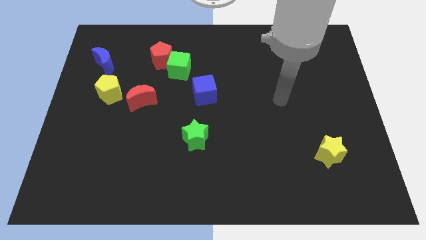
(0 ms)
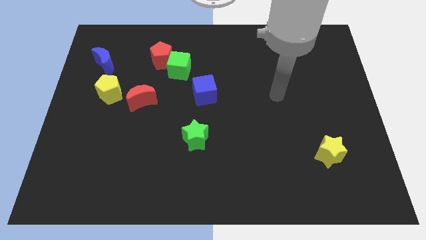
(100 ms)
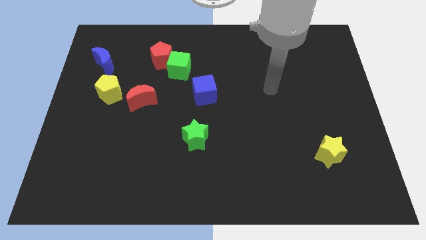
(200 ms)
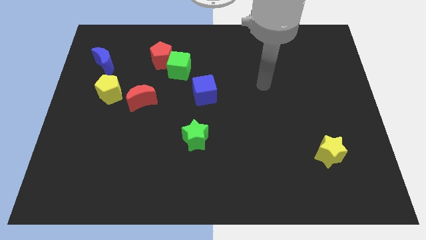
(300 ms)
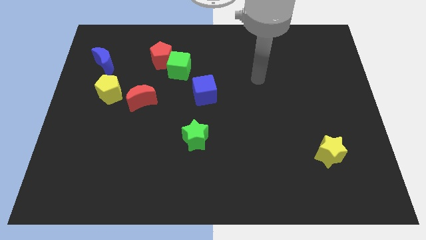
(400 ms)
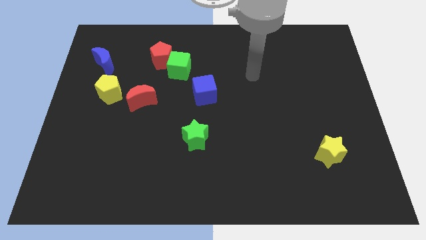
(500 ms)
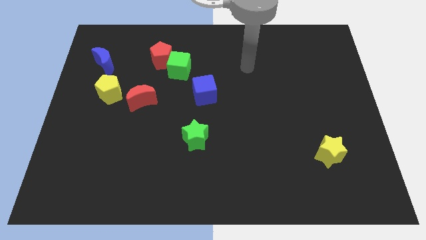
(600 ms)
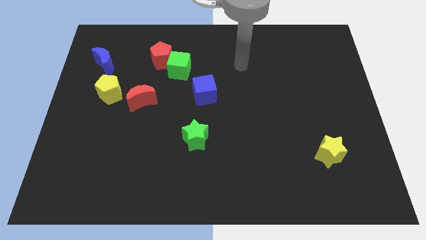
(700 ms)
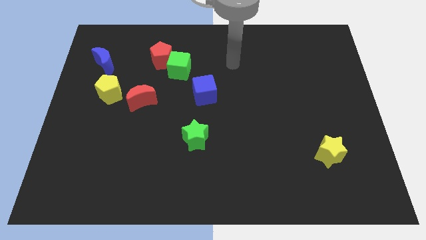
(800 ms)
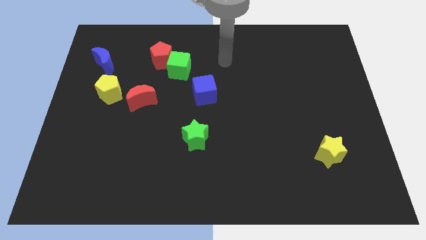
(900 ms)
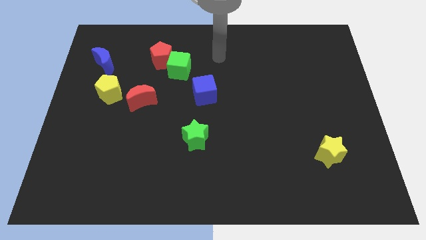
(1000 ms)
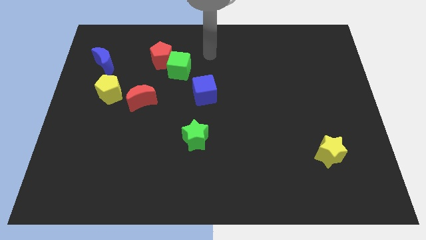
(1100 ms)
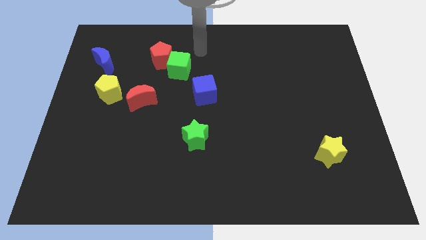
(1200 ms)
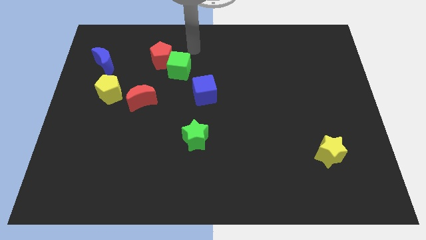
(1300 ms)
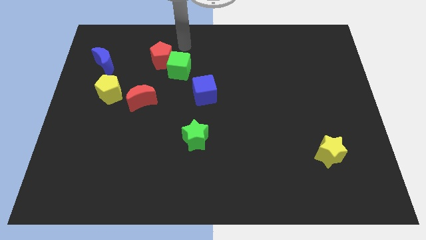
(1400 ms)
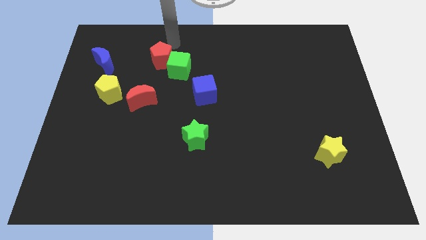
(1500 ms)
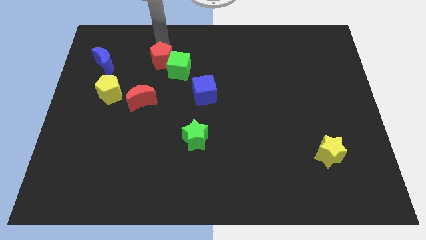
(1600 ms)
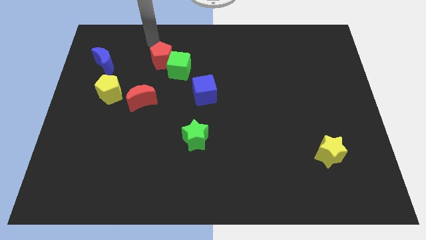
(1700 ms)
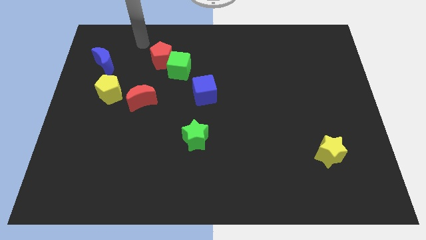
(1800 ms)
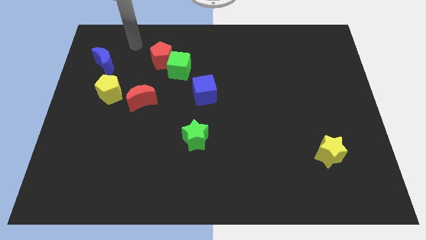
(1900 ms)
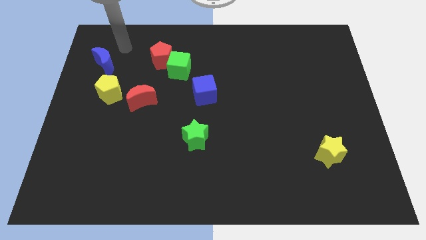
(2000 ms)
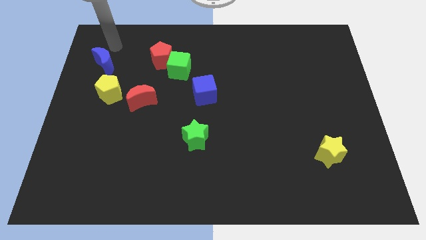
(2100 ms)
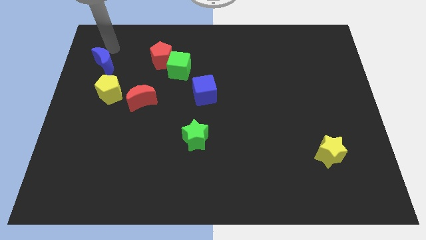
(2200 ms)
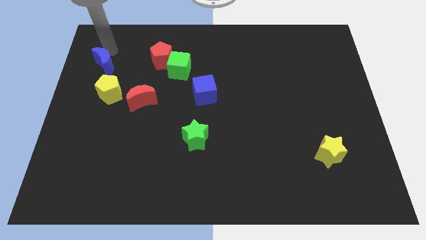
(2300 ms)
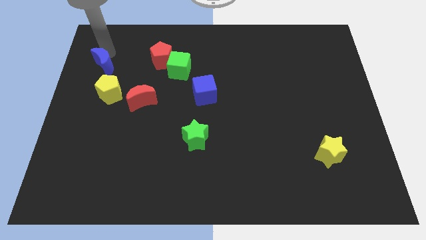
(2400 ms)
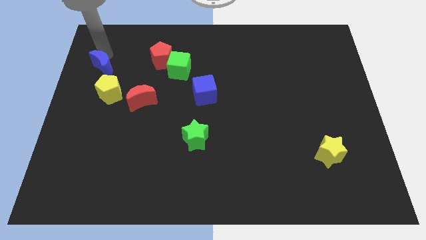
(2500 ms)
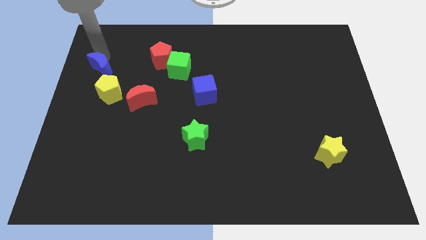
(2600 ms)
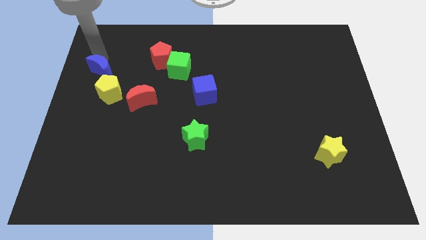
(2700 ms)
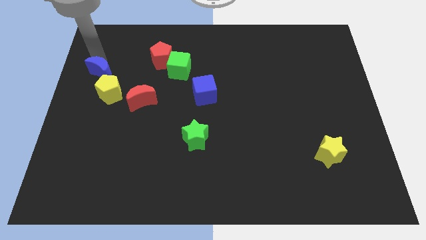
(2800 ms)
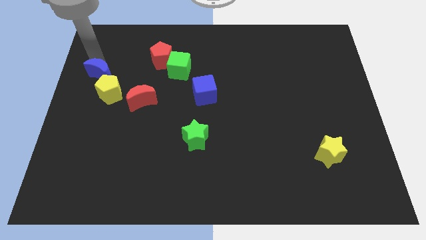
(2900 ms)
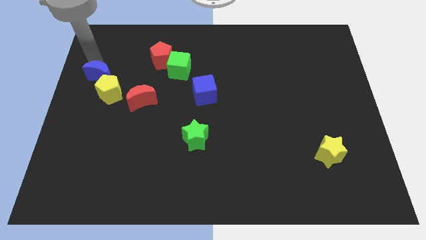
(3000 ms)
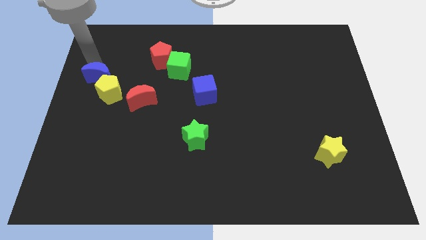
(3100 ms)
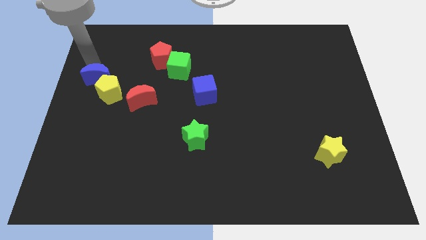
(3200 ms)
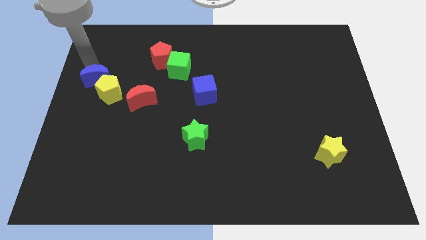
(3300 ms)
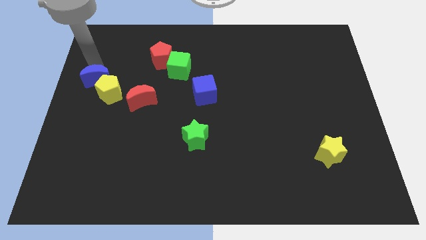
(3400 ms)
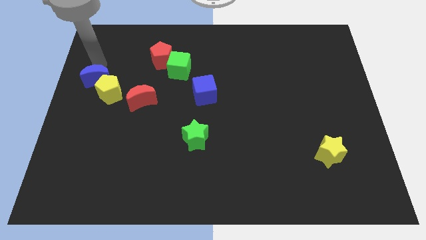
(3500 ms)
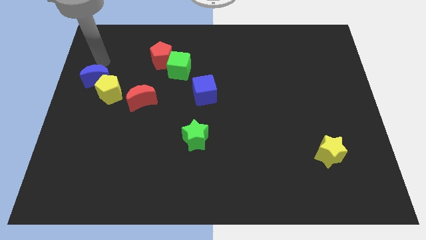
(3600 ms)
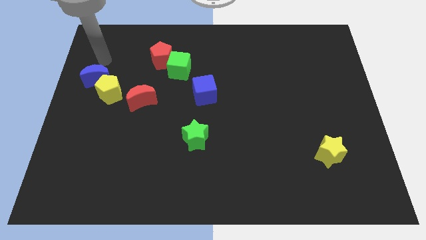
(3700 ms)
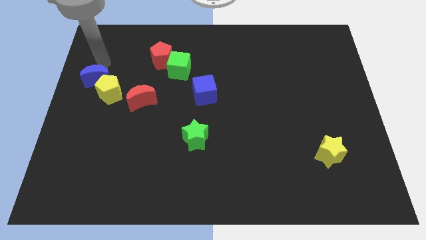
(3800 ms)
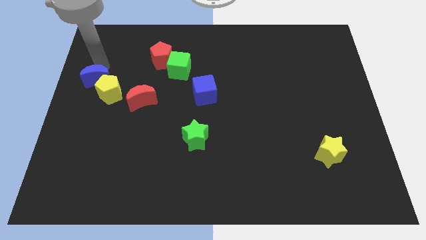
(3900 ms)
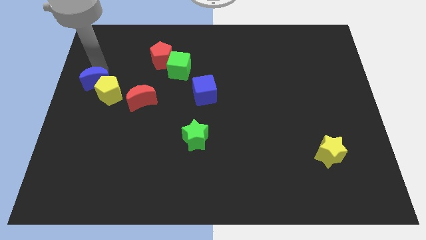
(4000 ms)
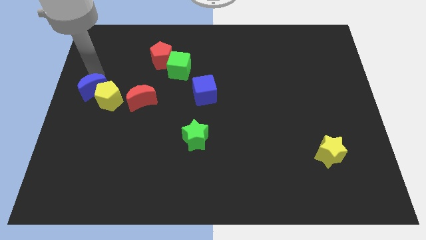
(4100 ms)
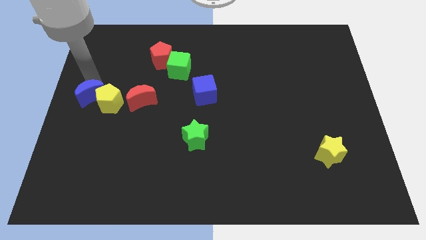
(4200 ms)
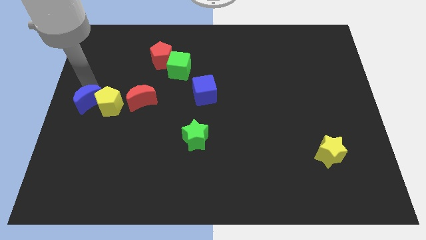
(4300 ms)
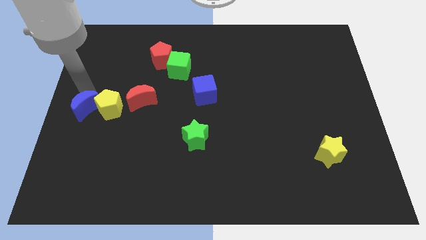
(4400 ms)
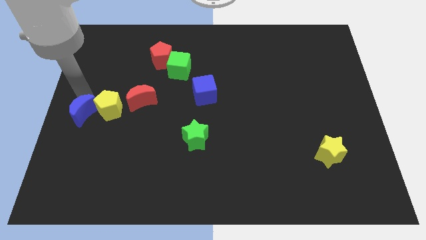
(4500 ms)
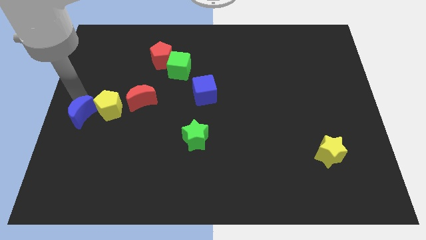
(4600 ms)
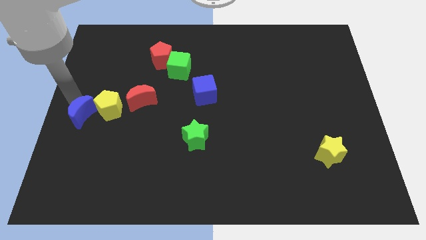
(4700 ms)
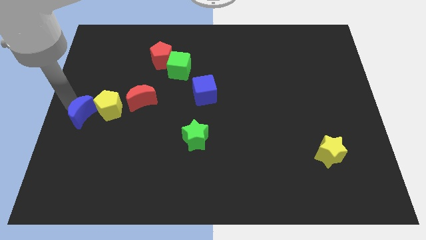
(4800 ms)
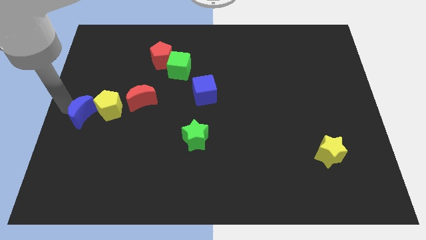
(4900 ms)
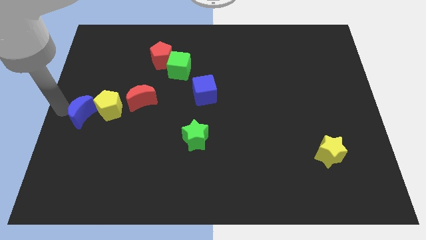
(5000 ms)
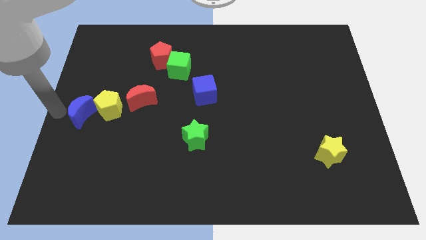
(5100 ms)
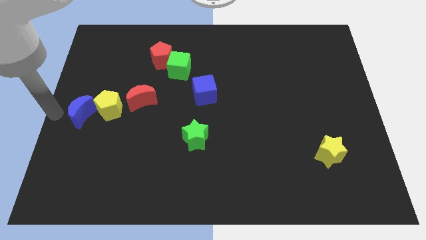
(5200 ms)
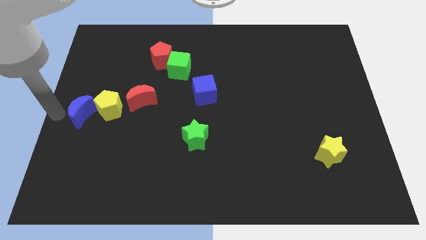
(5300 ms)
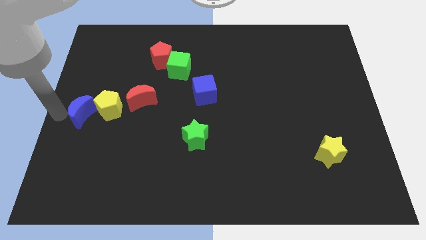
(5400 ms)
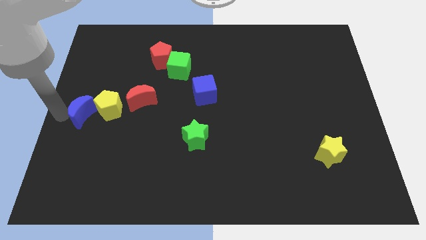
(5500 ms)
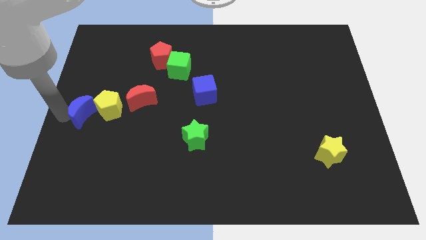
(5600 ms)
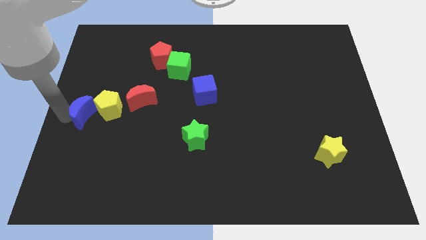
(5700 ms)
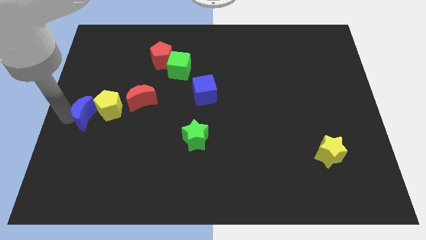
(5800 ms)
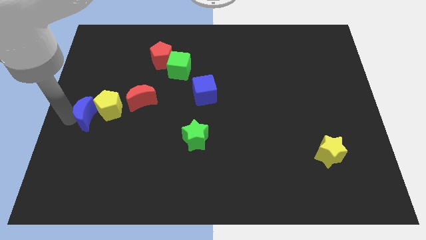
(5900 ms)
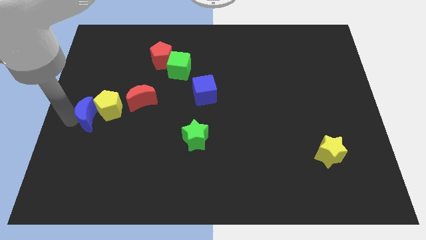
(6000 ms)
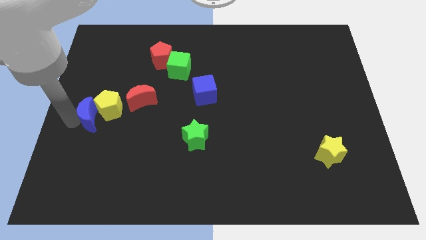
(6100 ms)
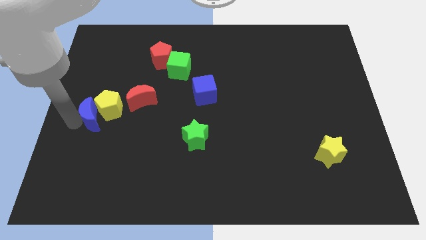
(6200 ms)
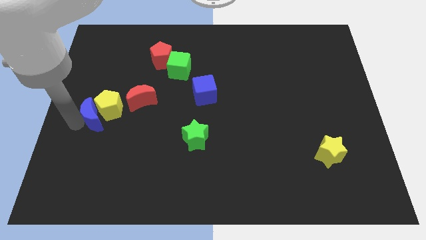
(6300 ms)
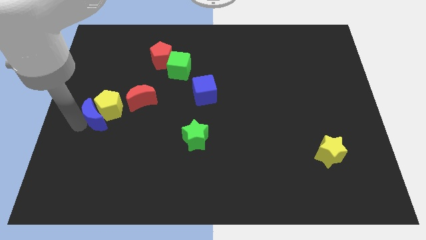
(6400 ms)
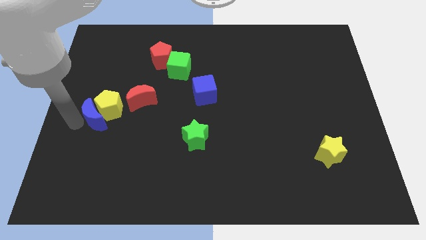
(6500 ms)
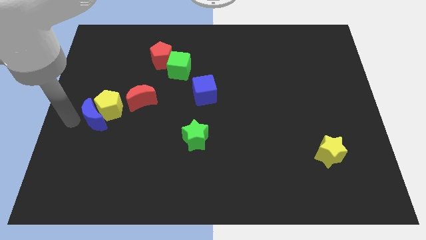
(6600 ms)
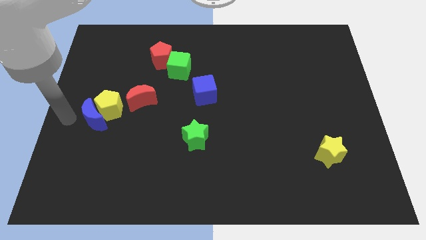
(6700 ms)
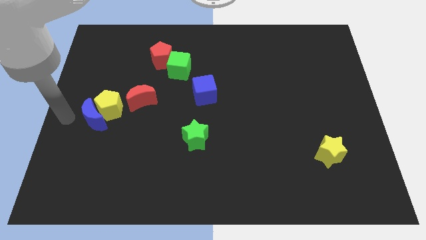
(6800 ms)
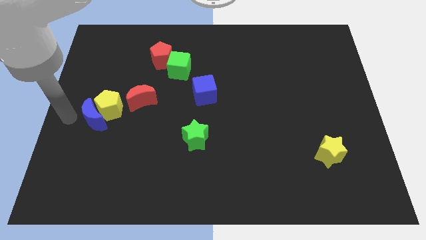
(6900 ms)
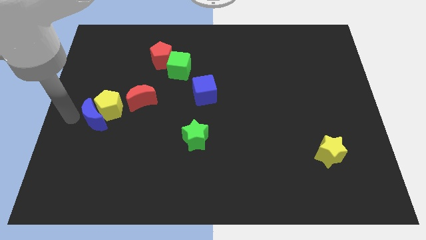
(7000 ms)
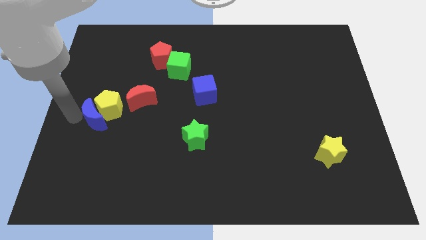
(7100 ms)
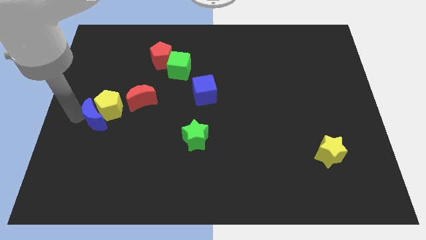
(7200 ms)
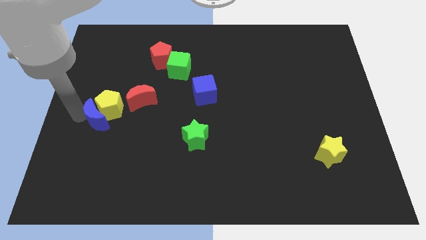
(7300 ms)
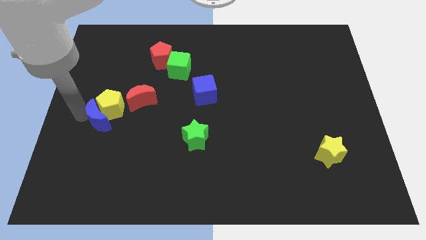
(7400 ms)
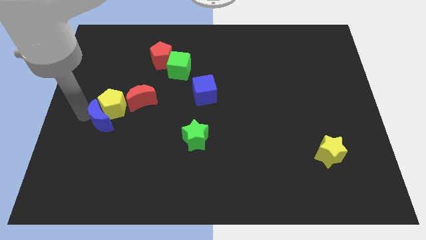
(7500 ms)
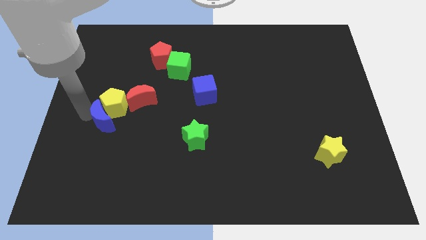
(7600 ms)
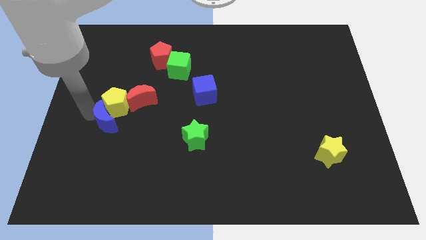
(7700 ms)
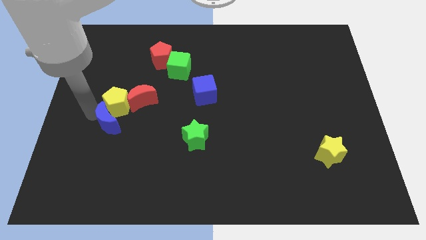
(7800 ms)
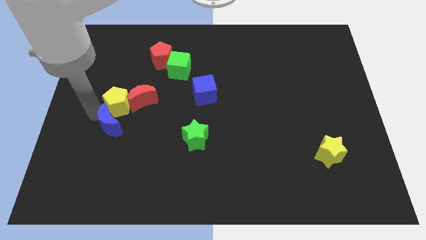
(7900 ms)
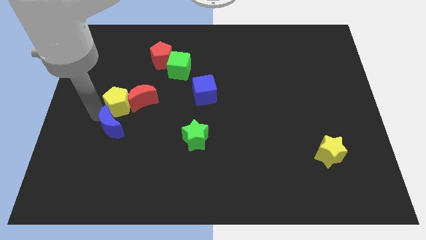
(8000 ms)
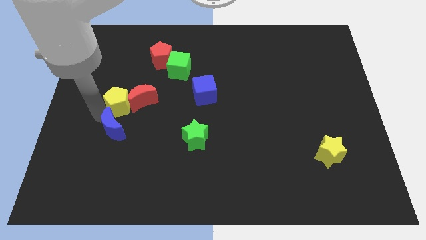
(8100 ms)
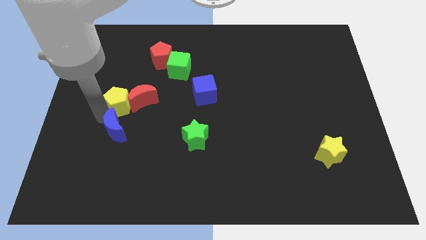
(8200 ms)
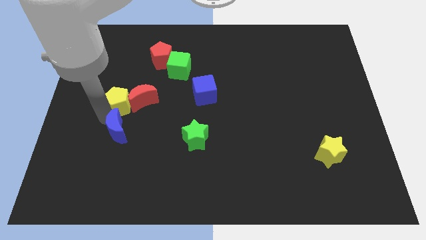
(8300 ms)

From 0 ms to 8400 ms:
push the blue moon to the bottom of the red moon
